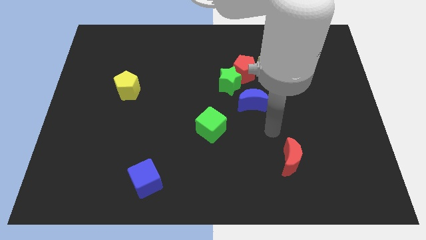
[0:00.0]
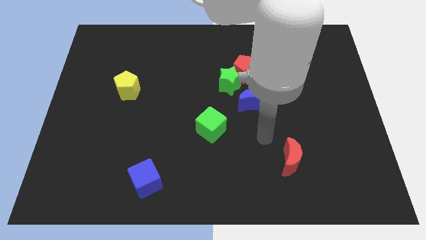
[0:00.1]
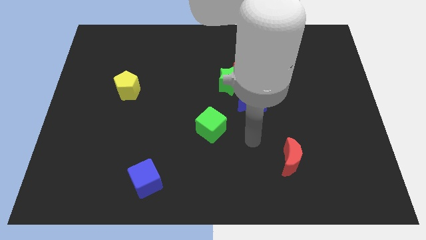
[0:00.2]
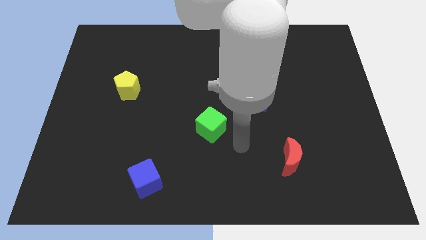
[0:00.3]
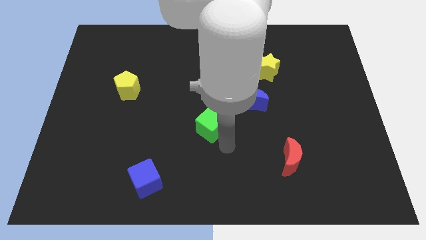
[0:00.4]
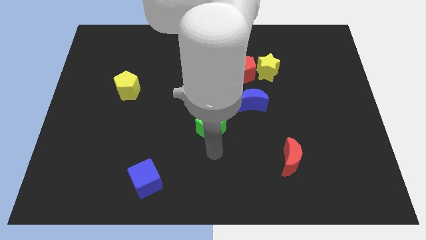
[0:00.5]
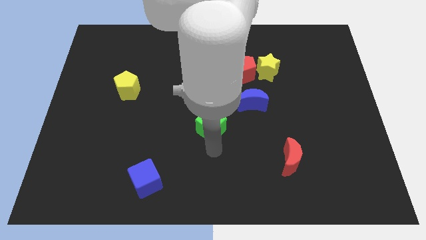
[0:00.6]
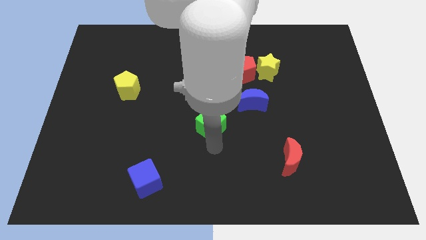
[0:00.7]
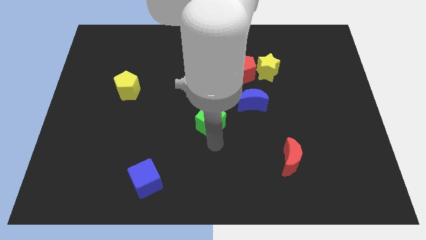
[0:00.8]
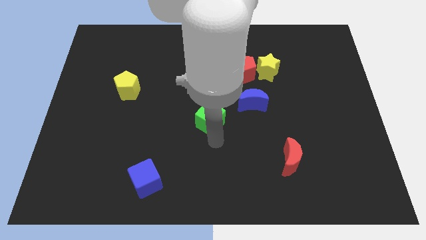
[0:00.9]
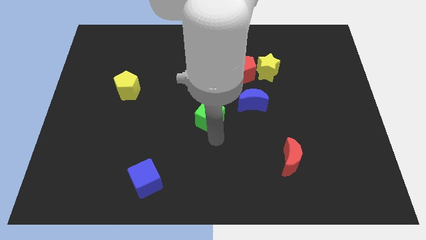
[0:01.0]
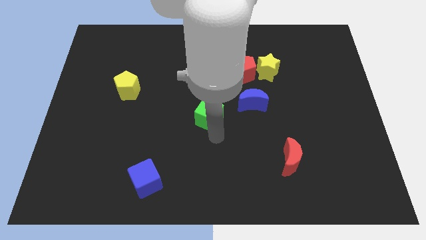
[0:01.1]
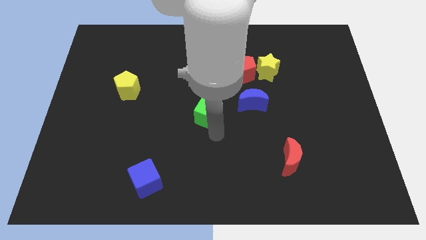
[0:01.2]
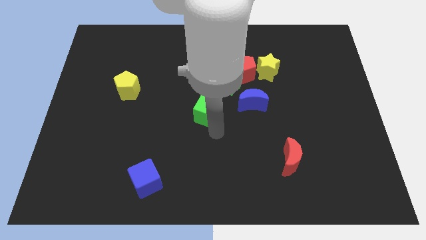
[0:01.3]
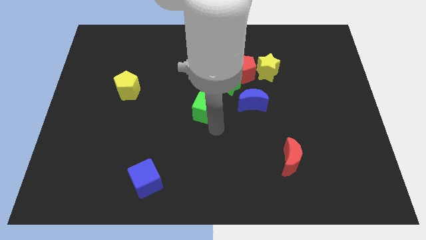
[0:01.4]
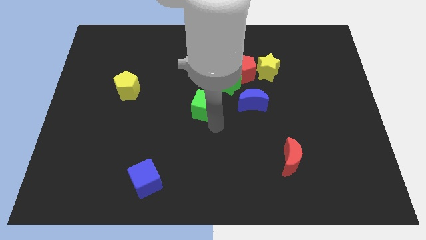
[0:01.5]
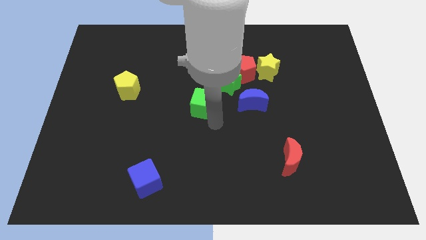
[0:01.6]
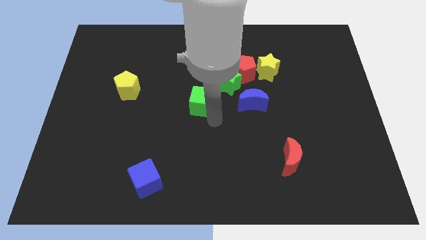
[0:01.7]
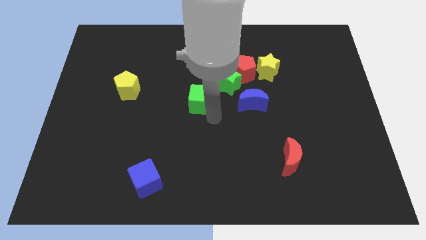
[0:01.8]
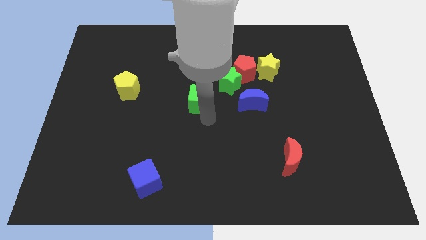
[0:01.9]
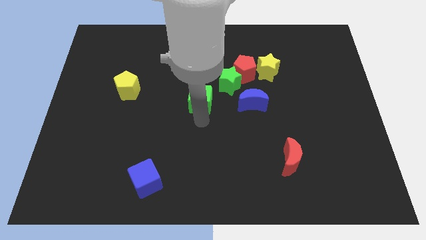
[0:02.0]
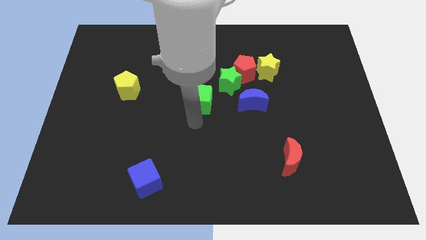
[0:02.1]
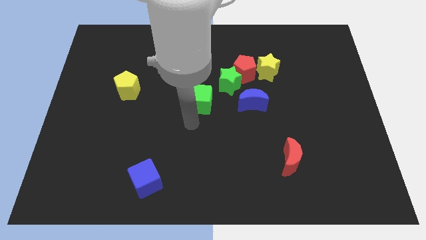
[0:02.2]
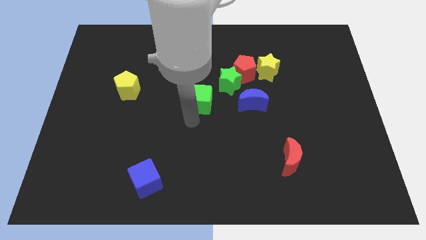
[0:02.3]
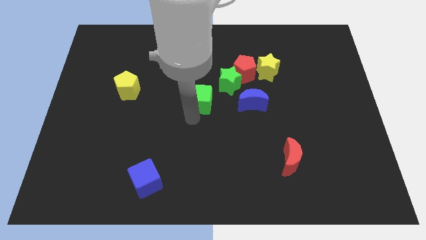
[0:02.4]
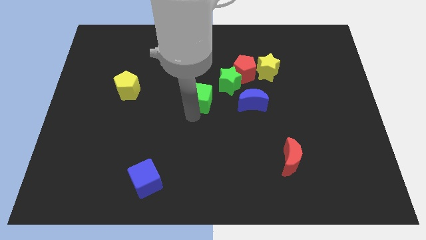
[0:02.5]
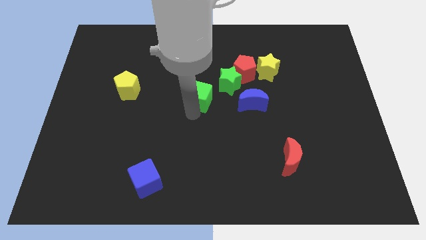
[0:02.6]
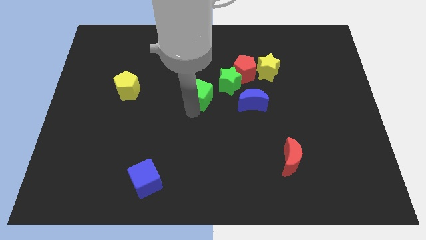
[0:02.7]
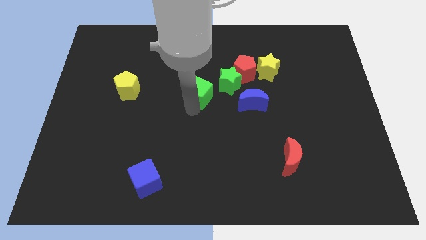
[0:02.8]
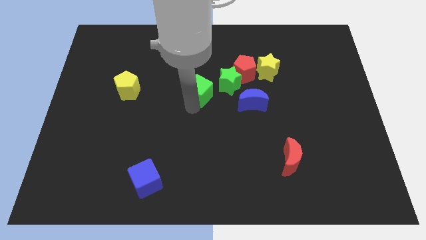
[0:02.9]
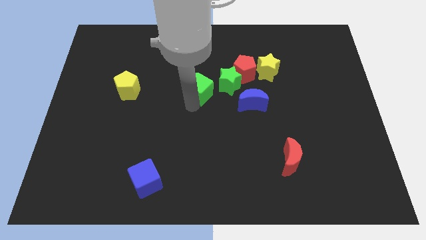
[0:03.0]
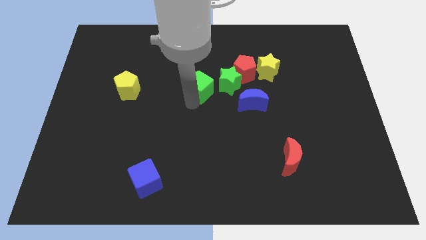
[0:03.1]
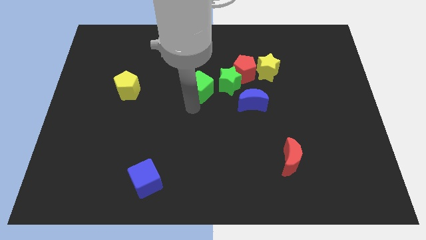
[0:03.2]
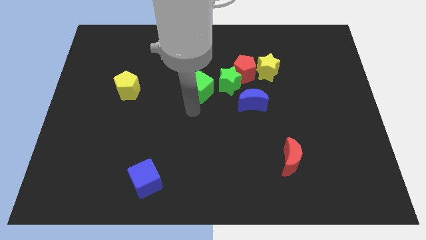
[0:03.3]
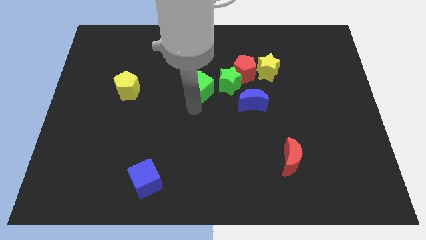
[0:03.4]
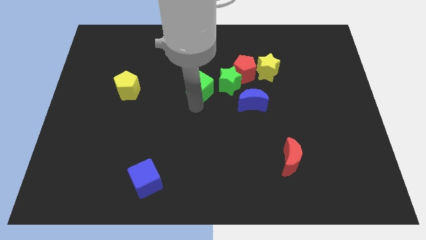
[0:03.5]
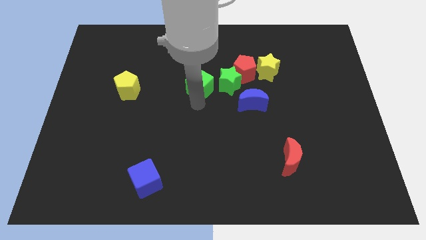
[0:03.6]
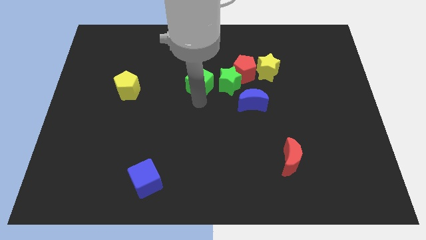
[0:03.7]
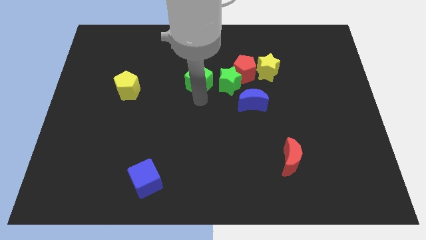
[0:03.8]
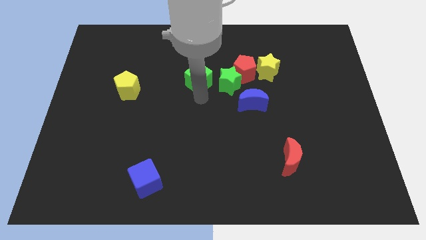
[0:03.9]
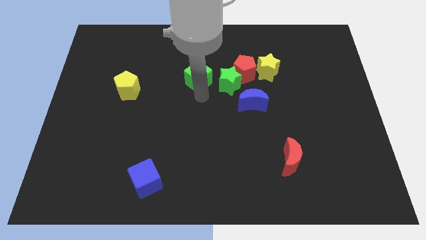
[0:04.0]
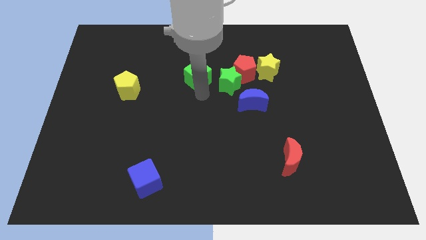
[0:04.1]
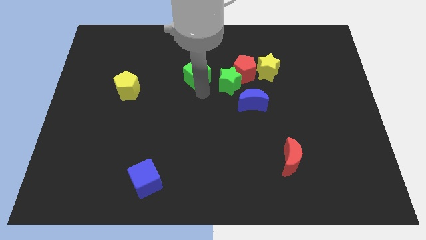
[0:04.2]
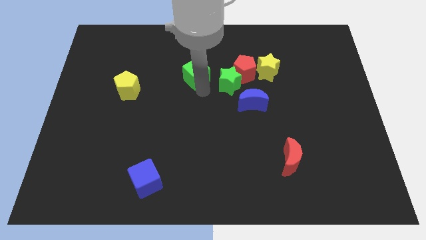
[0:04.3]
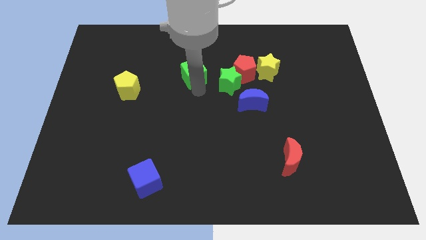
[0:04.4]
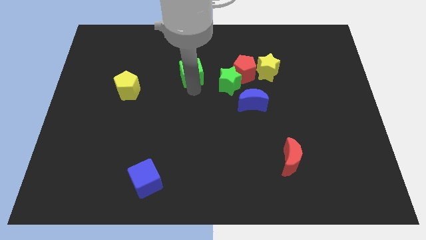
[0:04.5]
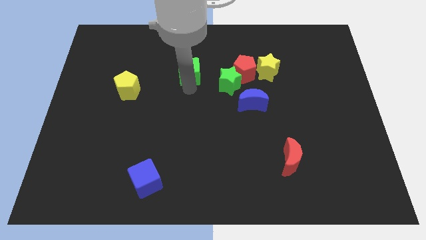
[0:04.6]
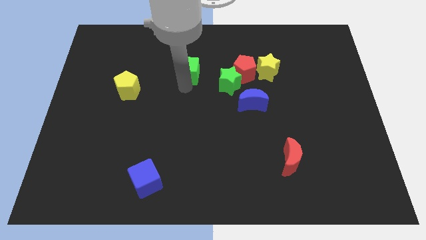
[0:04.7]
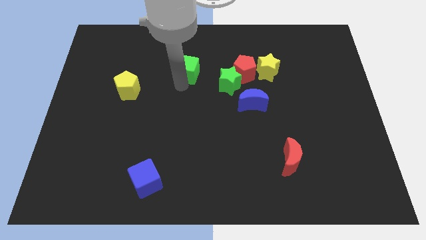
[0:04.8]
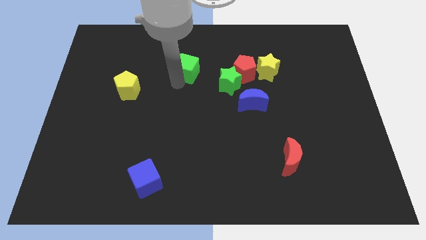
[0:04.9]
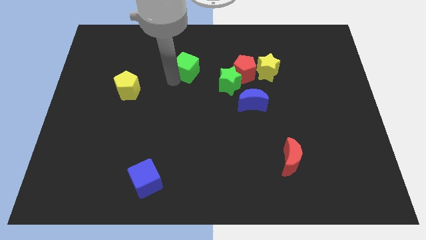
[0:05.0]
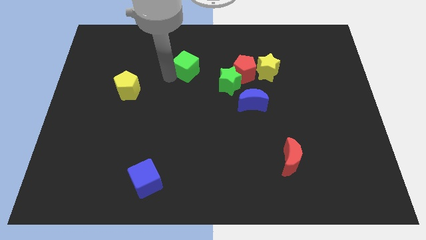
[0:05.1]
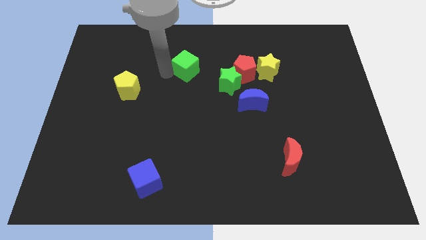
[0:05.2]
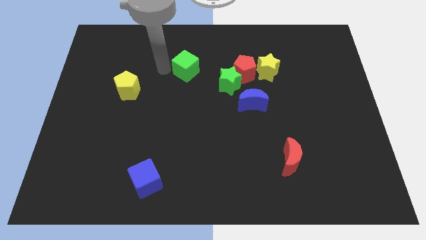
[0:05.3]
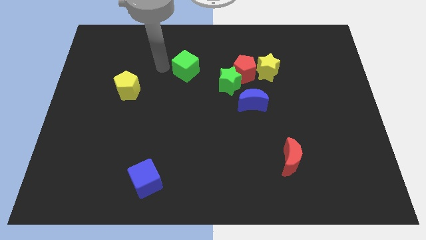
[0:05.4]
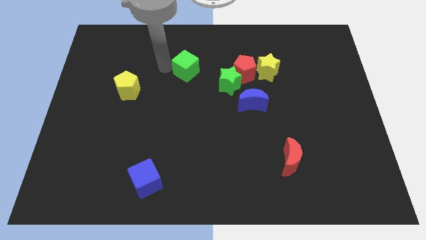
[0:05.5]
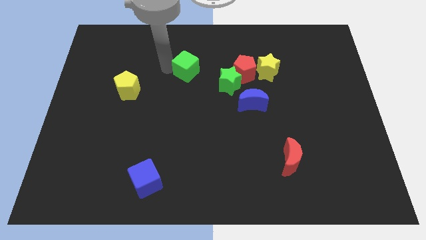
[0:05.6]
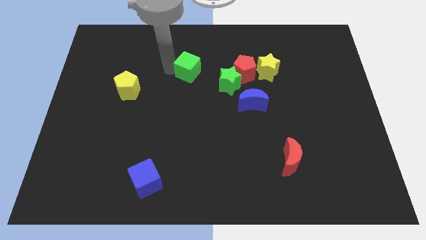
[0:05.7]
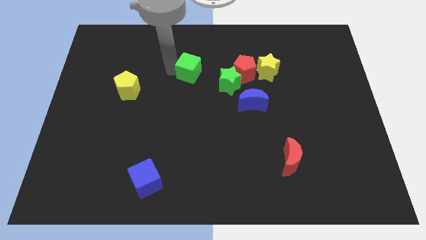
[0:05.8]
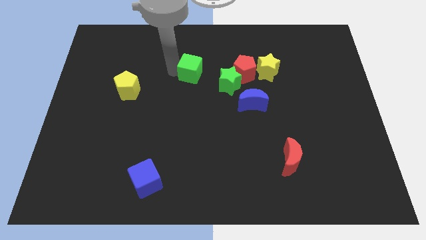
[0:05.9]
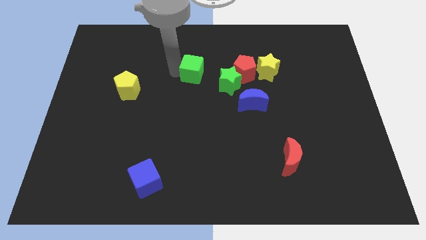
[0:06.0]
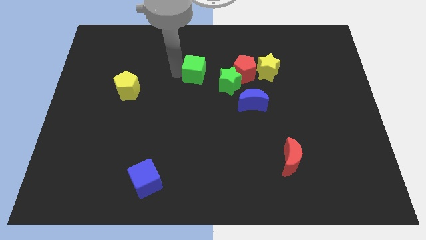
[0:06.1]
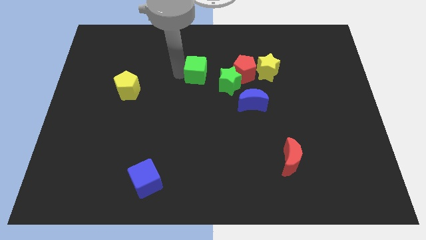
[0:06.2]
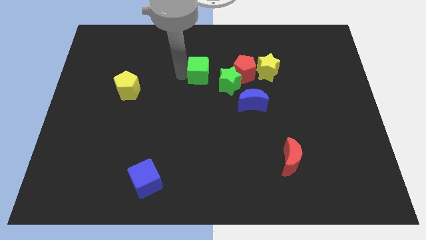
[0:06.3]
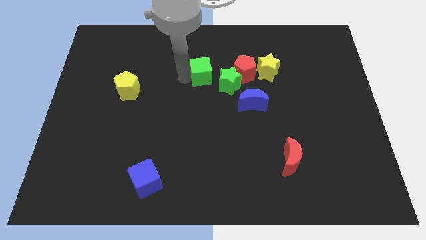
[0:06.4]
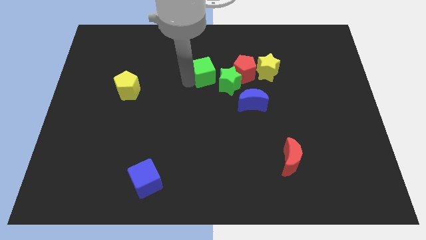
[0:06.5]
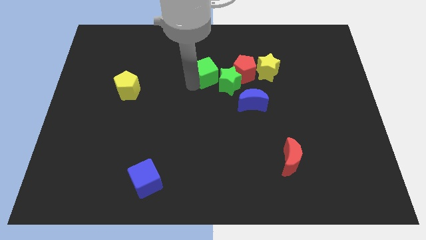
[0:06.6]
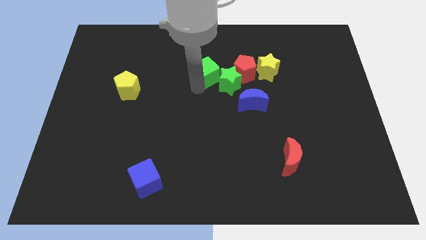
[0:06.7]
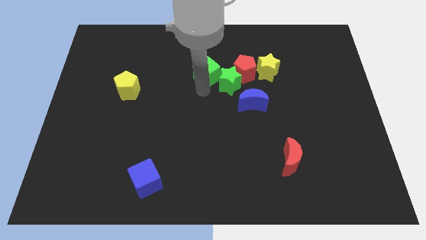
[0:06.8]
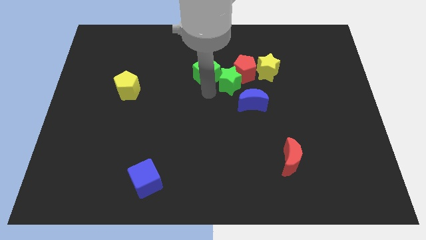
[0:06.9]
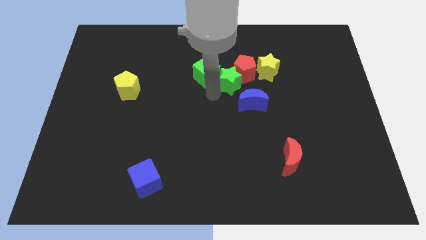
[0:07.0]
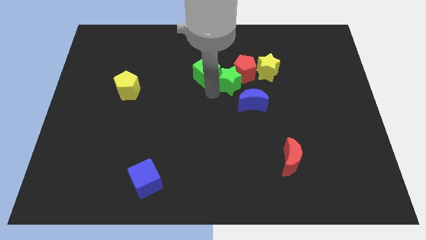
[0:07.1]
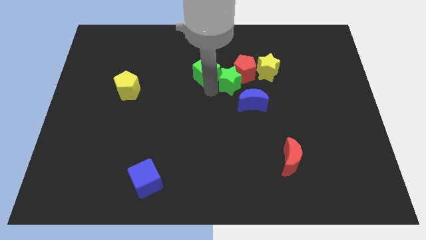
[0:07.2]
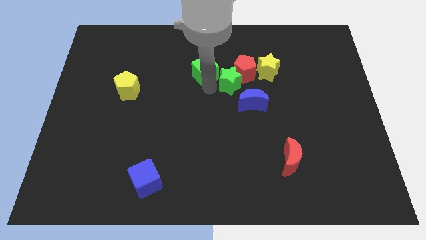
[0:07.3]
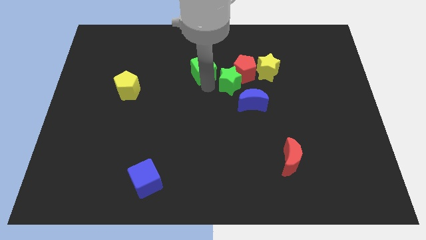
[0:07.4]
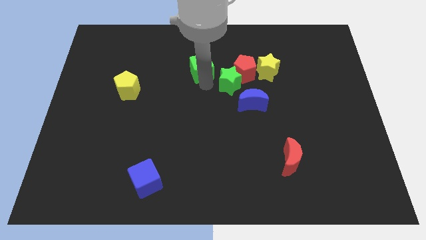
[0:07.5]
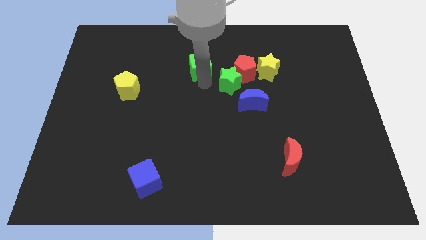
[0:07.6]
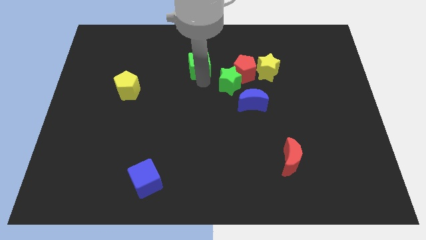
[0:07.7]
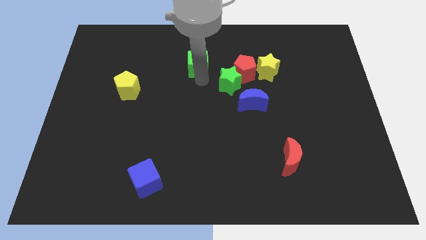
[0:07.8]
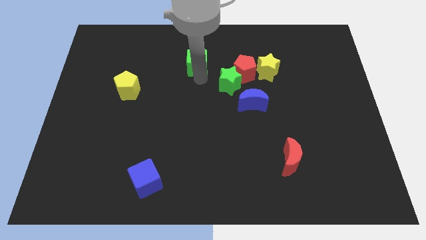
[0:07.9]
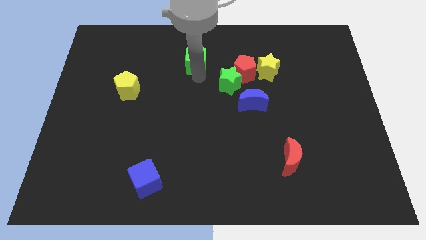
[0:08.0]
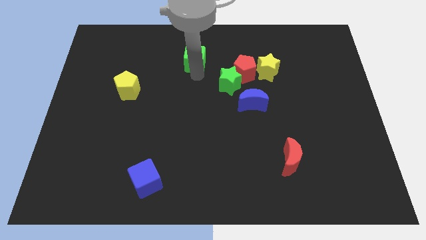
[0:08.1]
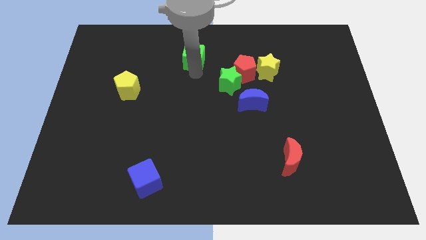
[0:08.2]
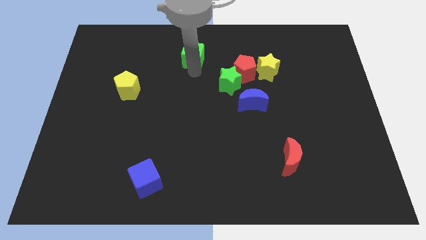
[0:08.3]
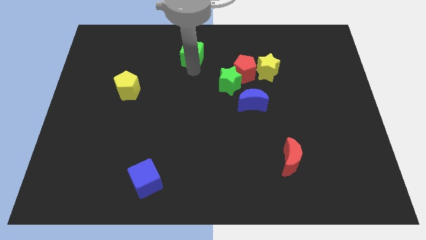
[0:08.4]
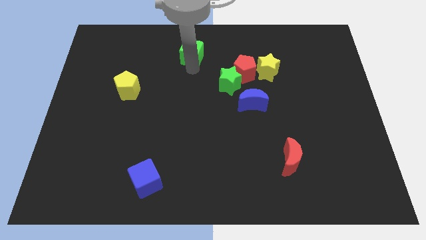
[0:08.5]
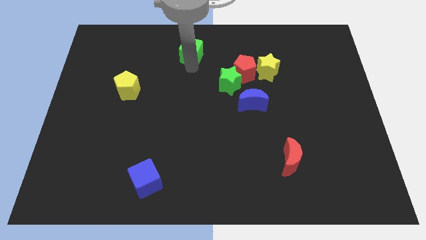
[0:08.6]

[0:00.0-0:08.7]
put the green cube to the top
